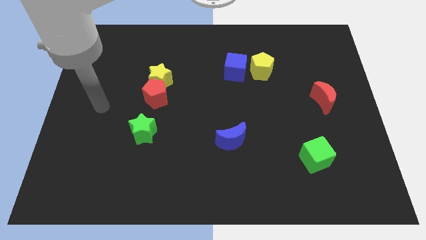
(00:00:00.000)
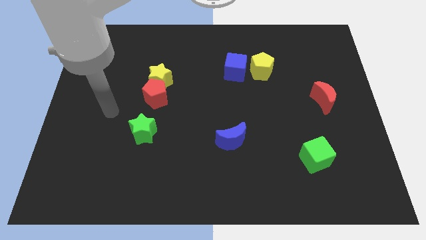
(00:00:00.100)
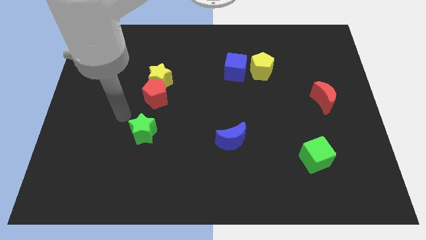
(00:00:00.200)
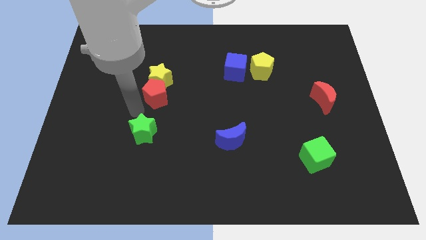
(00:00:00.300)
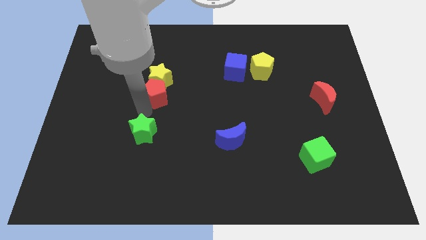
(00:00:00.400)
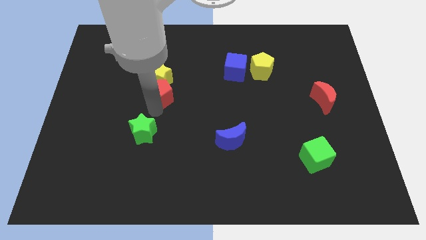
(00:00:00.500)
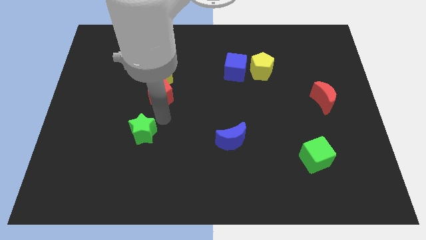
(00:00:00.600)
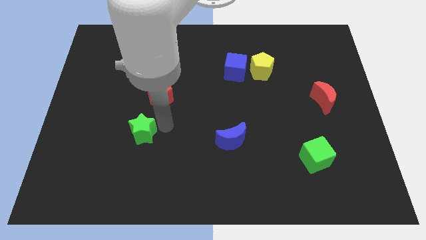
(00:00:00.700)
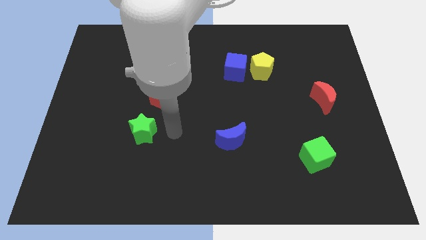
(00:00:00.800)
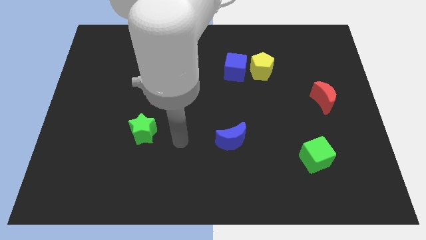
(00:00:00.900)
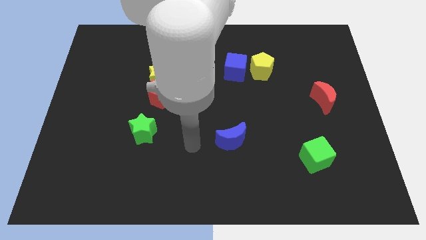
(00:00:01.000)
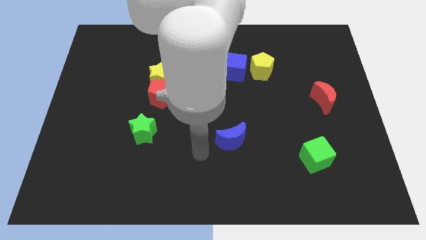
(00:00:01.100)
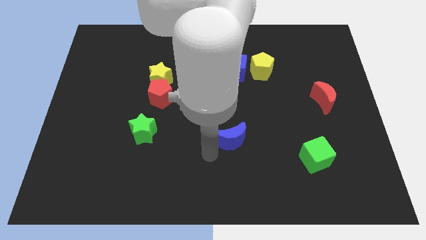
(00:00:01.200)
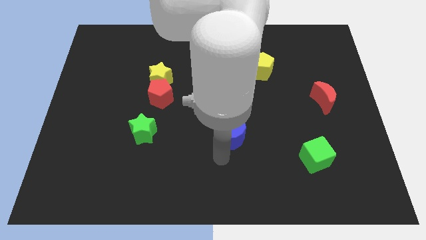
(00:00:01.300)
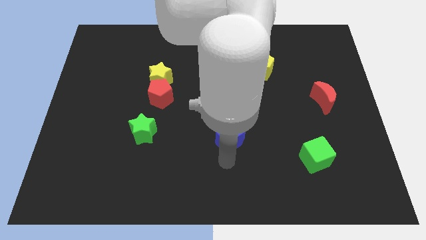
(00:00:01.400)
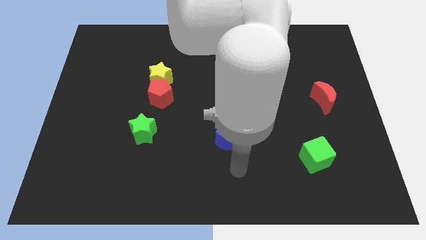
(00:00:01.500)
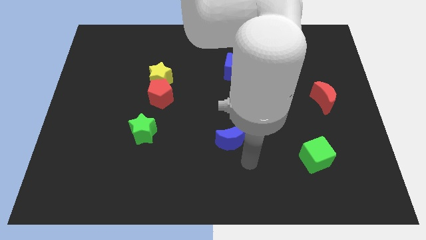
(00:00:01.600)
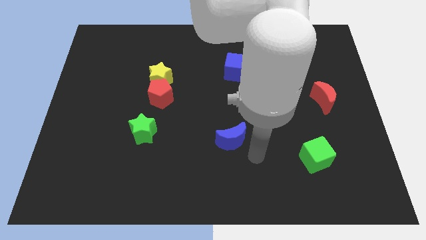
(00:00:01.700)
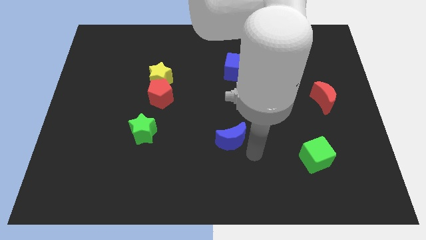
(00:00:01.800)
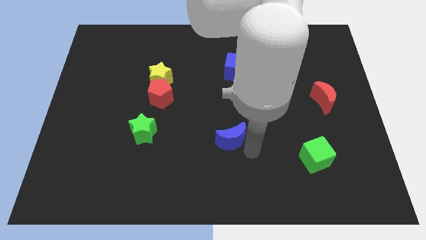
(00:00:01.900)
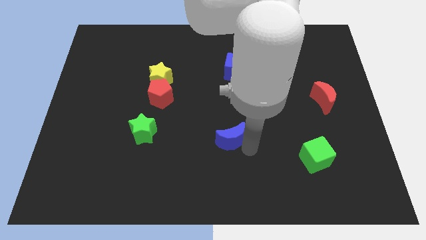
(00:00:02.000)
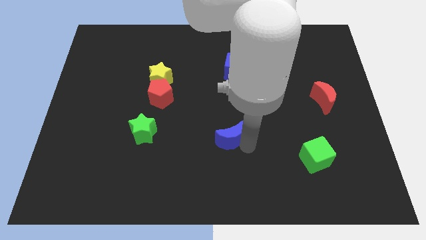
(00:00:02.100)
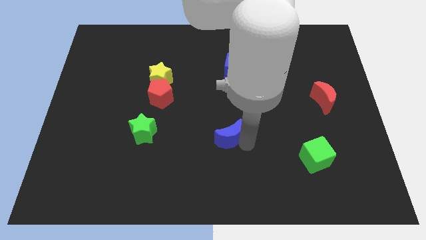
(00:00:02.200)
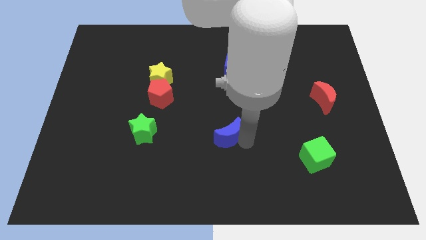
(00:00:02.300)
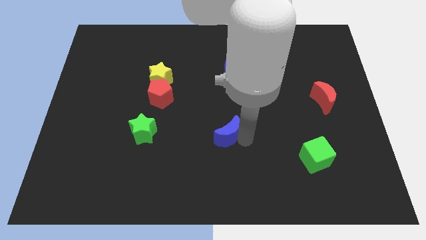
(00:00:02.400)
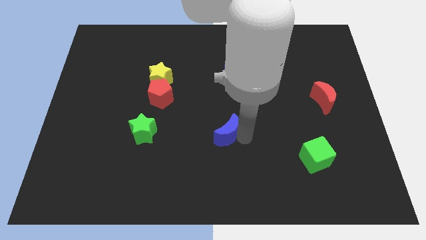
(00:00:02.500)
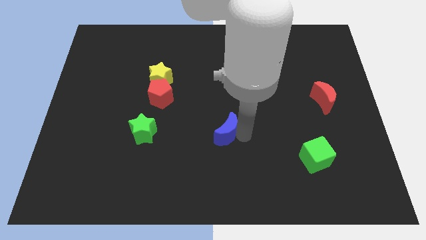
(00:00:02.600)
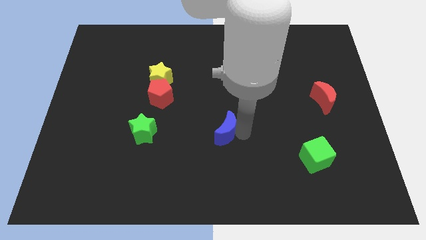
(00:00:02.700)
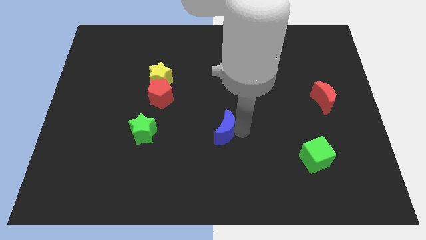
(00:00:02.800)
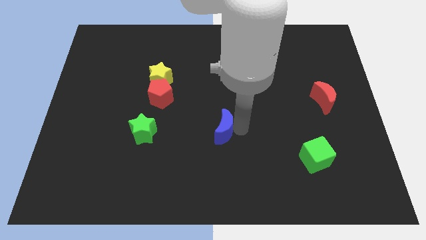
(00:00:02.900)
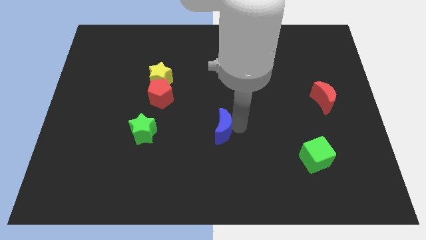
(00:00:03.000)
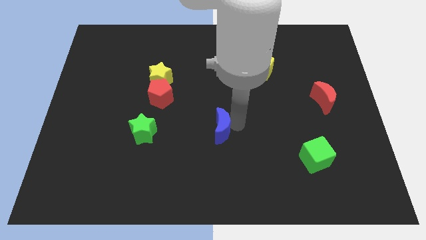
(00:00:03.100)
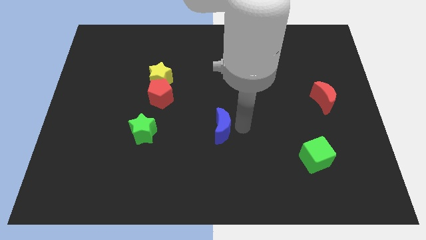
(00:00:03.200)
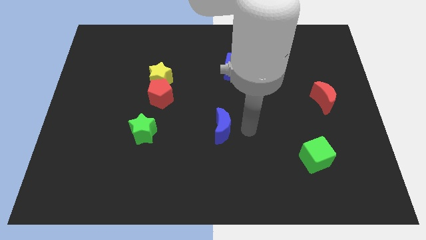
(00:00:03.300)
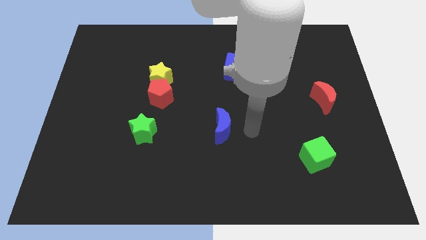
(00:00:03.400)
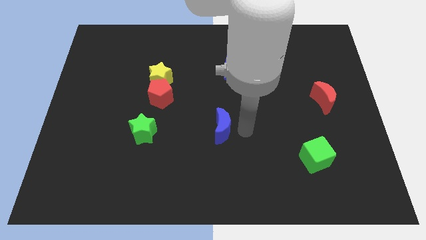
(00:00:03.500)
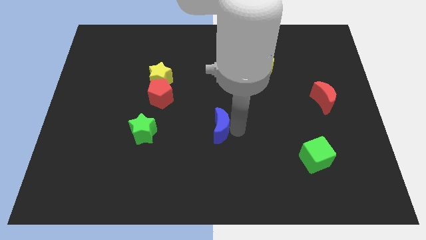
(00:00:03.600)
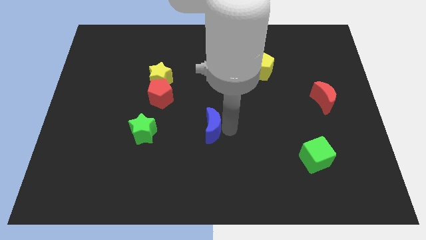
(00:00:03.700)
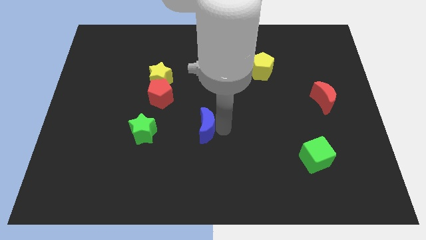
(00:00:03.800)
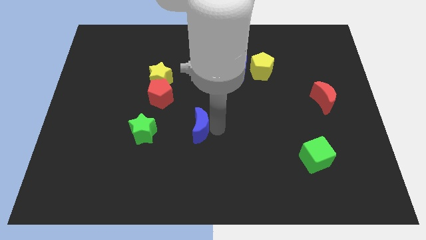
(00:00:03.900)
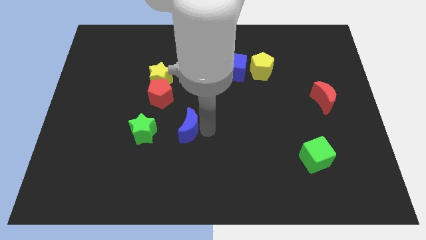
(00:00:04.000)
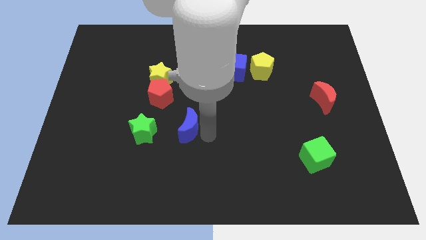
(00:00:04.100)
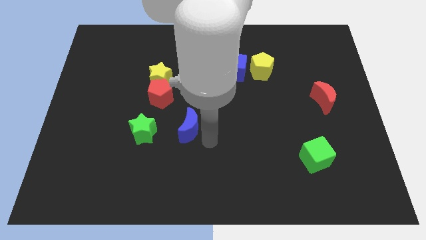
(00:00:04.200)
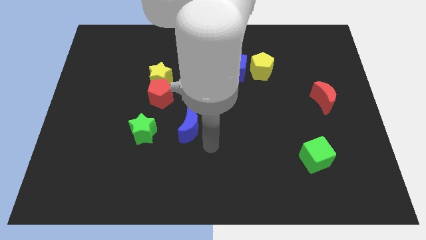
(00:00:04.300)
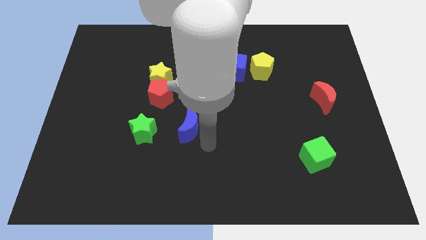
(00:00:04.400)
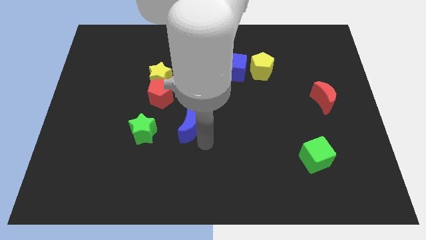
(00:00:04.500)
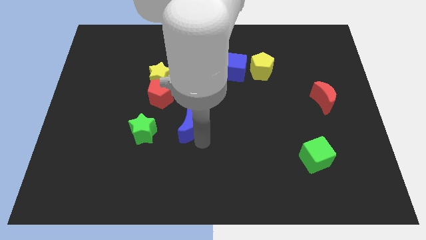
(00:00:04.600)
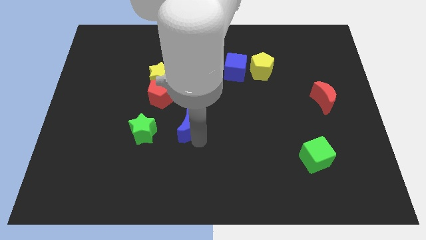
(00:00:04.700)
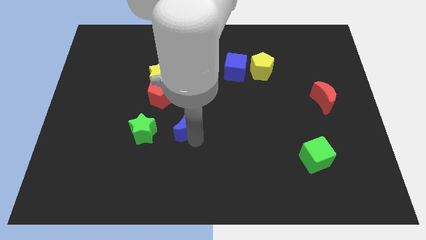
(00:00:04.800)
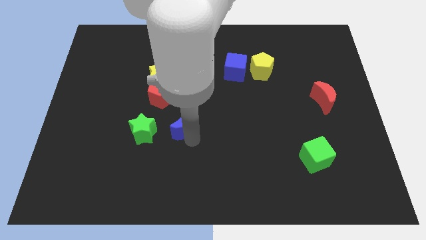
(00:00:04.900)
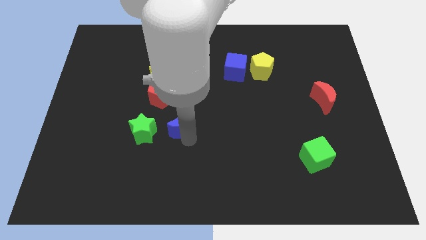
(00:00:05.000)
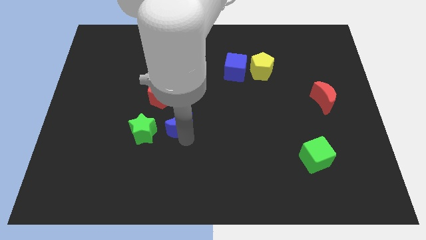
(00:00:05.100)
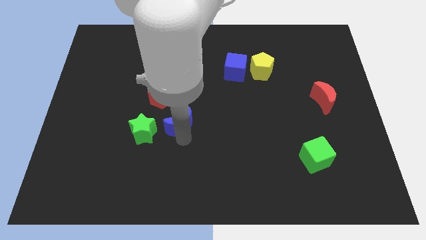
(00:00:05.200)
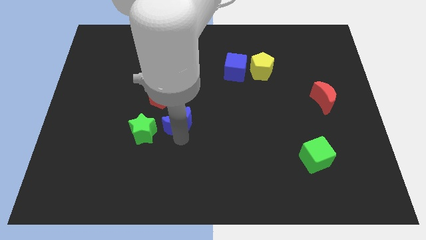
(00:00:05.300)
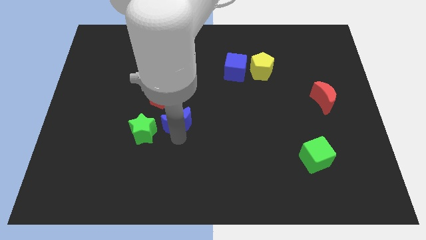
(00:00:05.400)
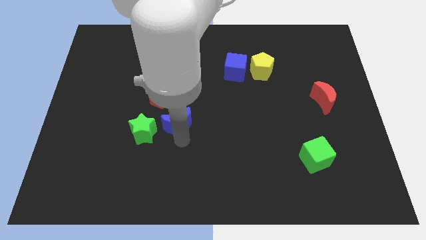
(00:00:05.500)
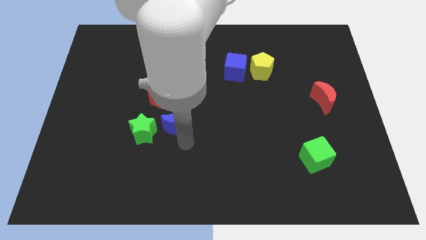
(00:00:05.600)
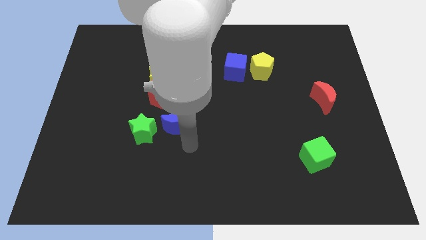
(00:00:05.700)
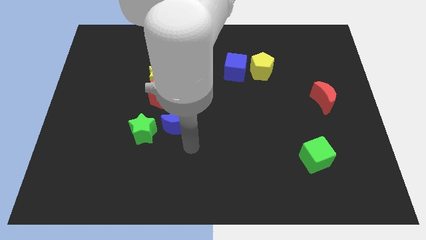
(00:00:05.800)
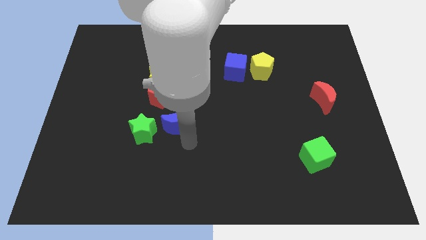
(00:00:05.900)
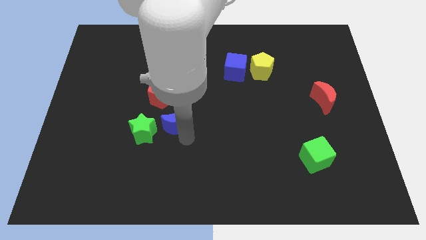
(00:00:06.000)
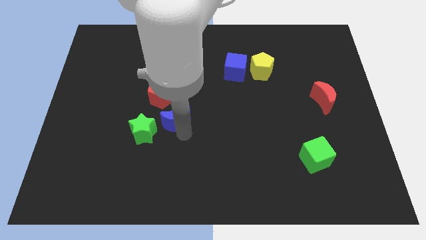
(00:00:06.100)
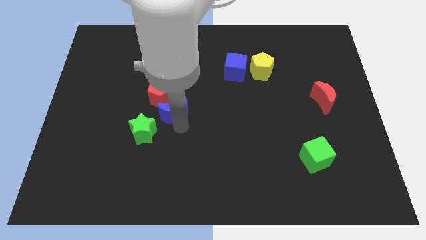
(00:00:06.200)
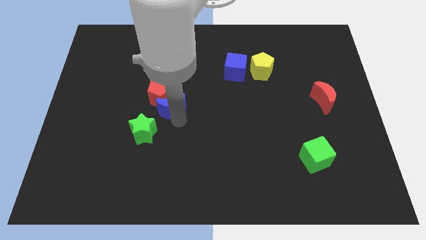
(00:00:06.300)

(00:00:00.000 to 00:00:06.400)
put the blue moon next to the red pentagon

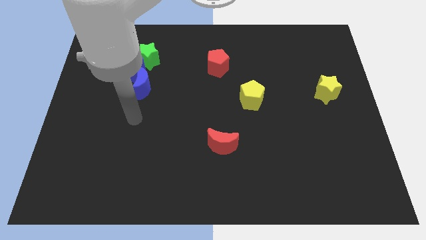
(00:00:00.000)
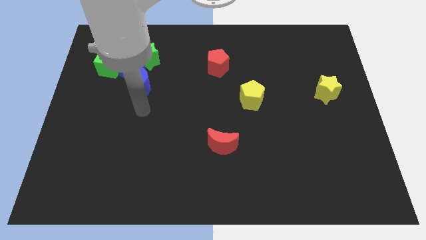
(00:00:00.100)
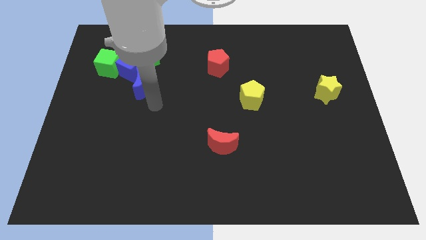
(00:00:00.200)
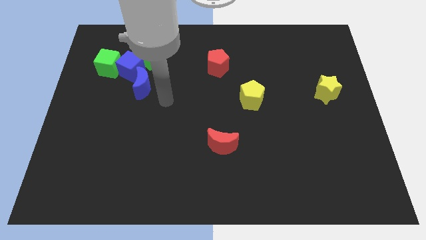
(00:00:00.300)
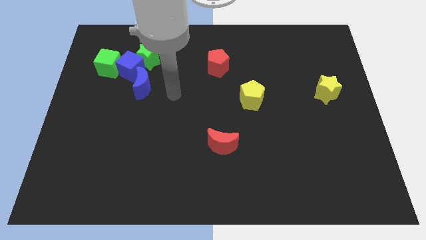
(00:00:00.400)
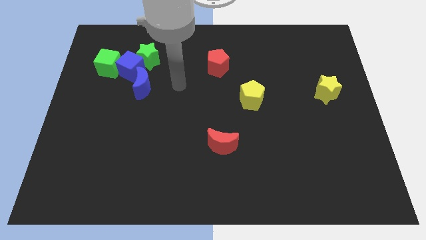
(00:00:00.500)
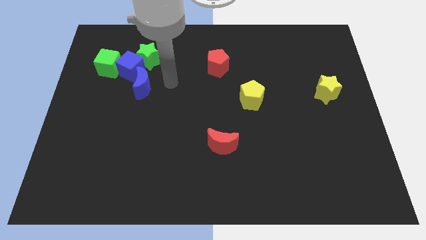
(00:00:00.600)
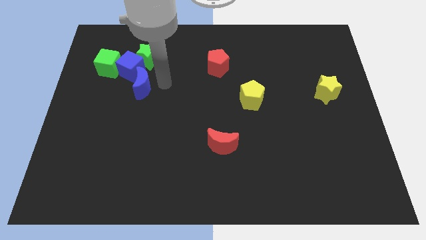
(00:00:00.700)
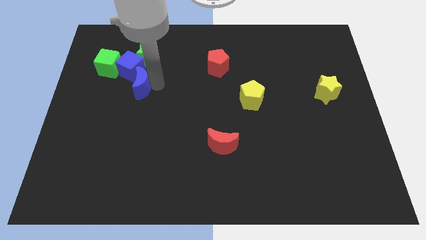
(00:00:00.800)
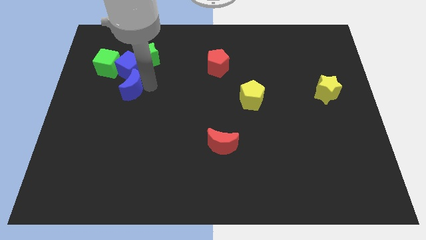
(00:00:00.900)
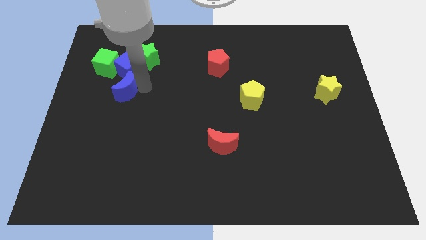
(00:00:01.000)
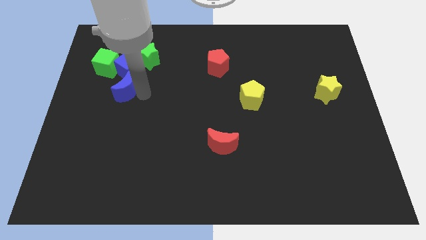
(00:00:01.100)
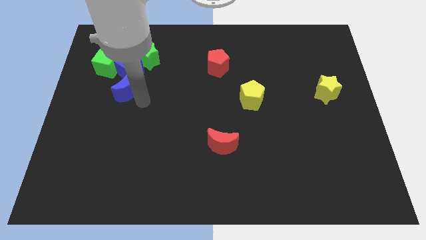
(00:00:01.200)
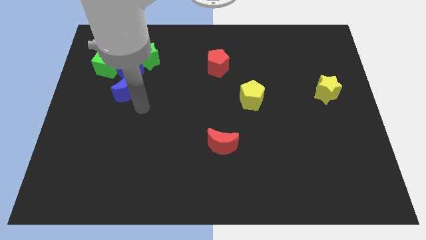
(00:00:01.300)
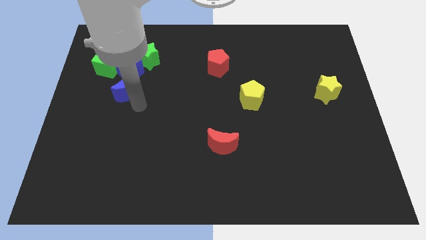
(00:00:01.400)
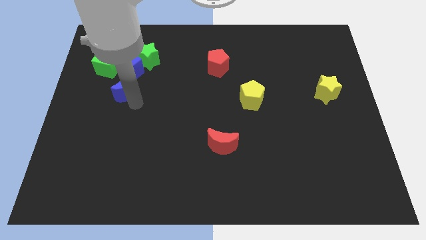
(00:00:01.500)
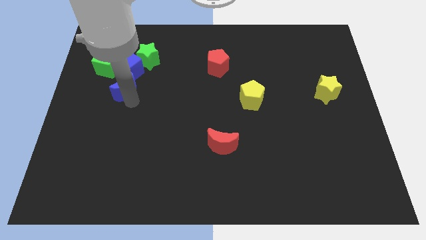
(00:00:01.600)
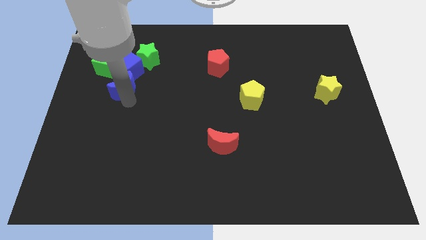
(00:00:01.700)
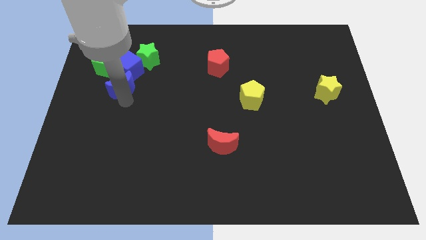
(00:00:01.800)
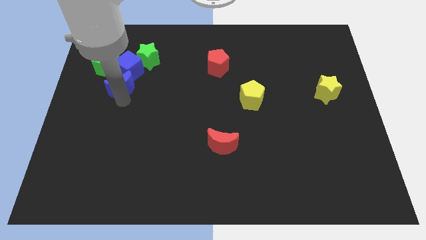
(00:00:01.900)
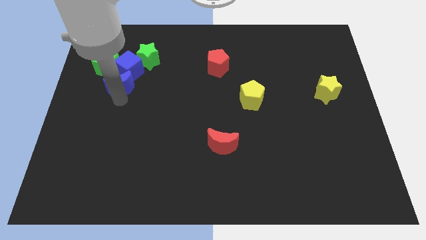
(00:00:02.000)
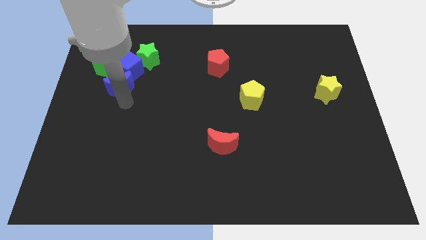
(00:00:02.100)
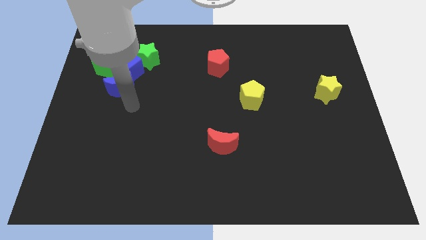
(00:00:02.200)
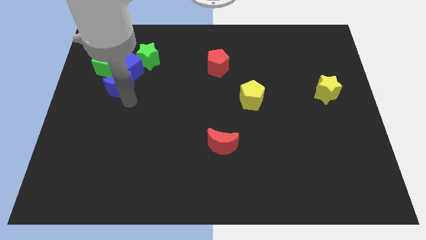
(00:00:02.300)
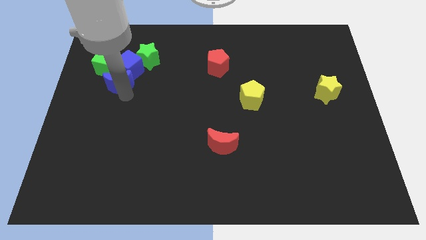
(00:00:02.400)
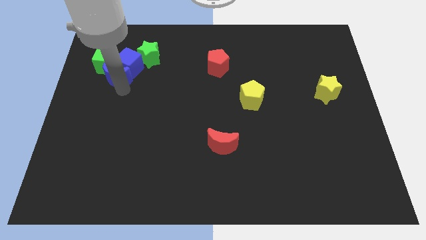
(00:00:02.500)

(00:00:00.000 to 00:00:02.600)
slide the blue moon next to the green cube
